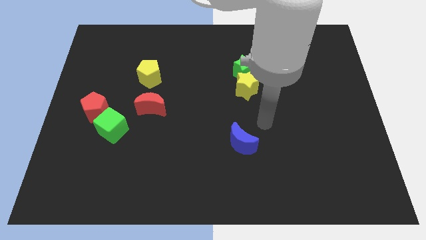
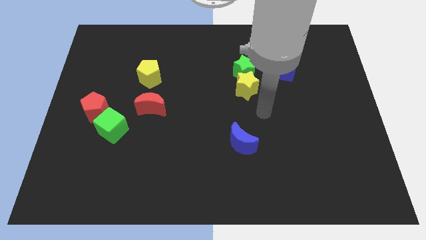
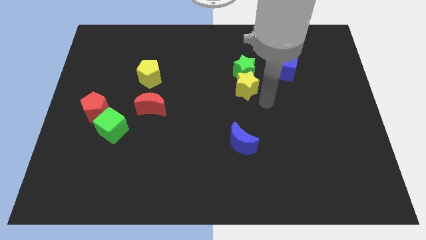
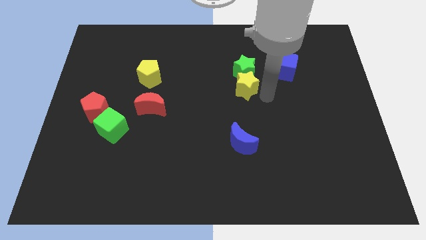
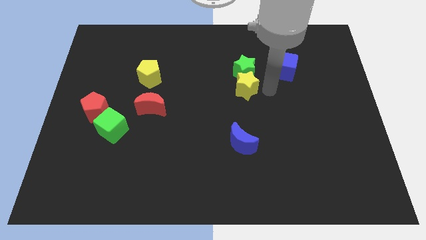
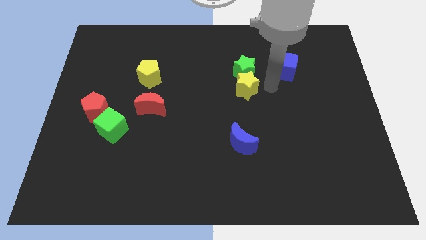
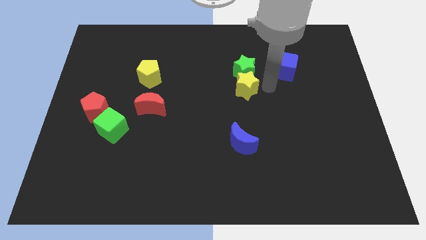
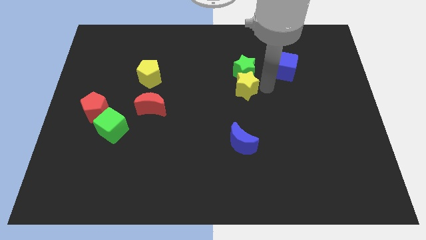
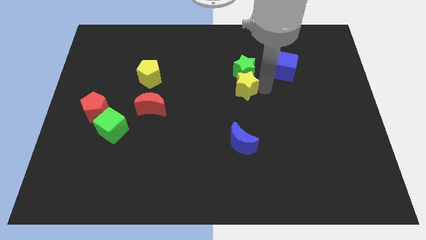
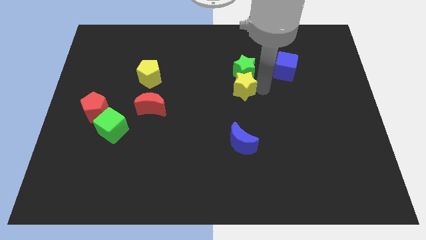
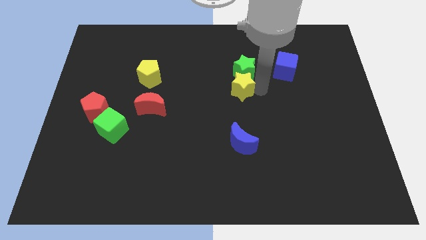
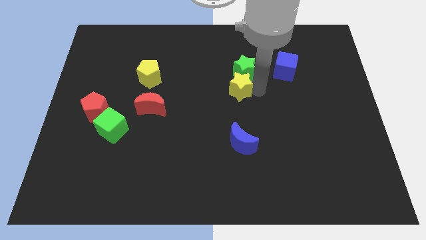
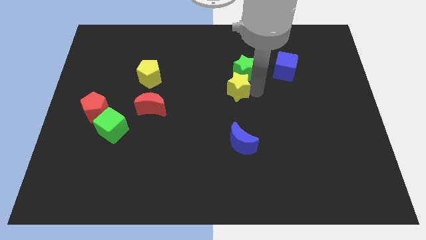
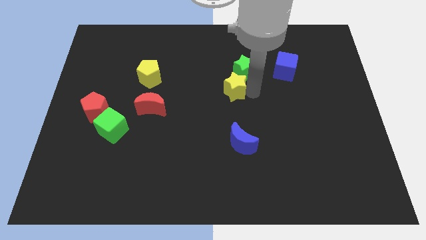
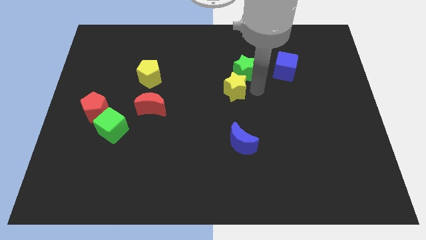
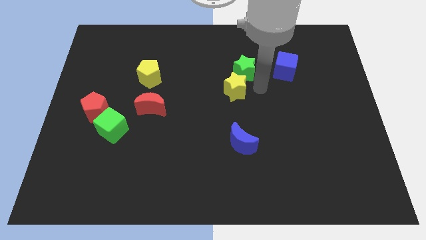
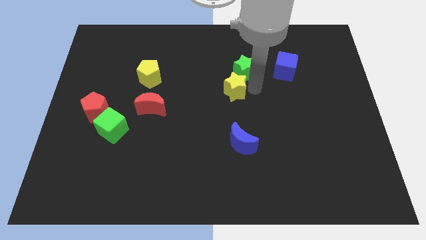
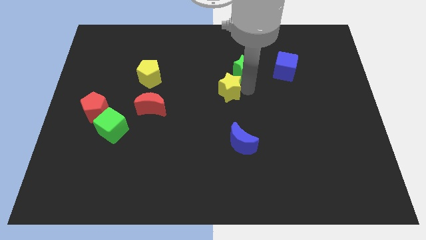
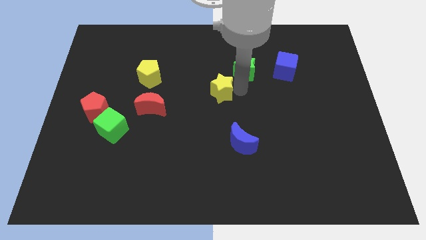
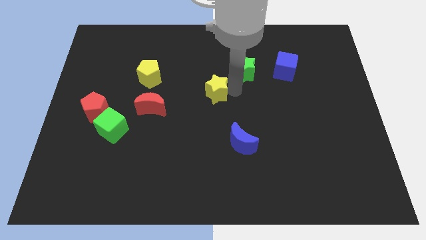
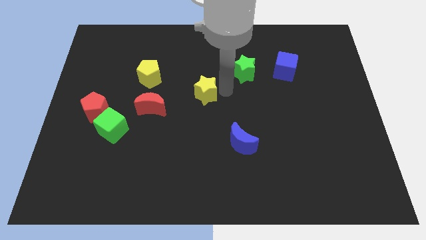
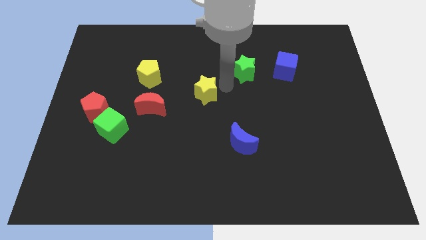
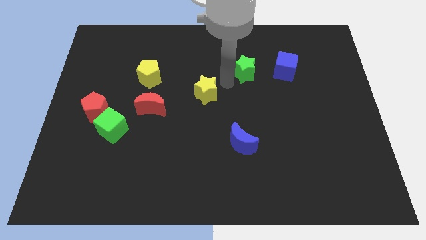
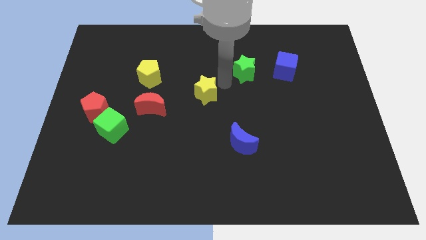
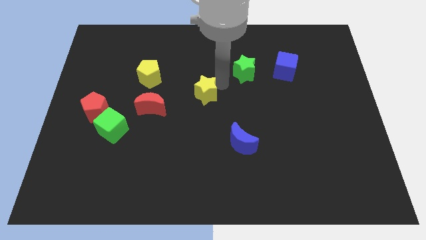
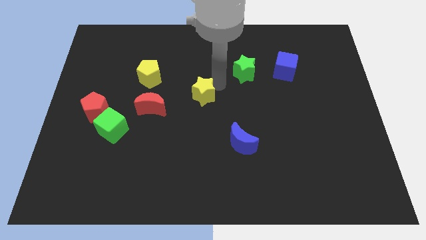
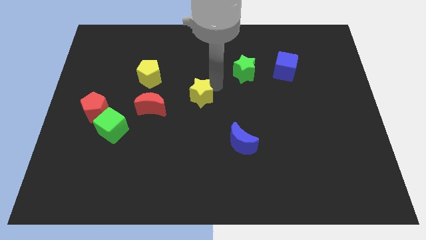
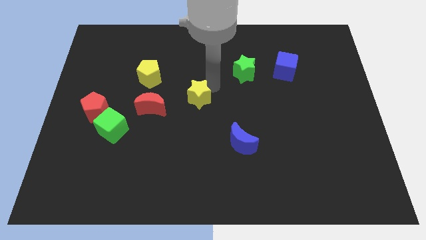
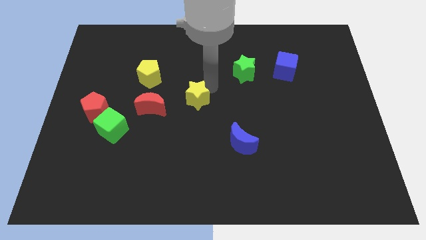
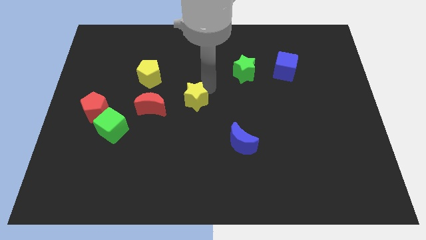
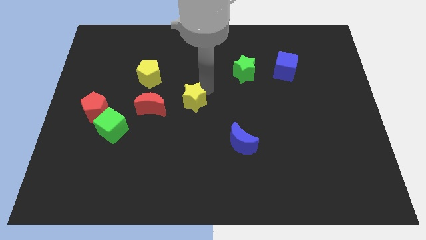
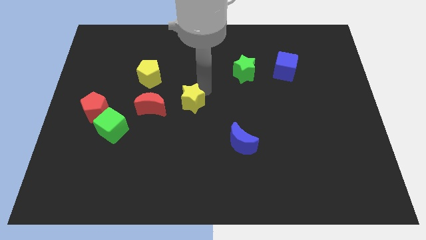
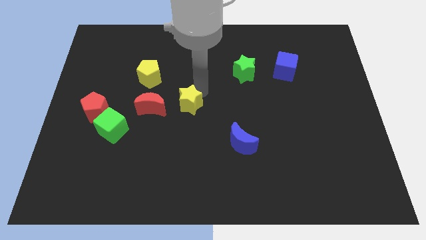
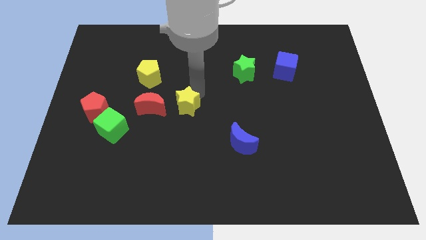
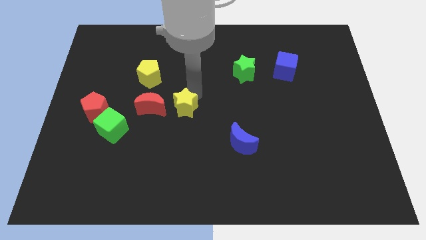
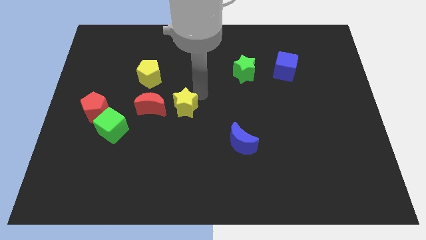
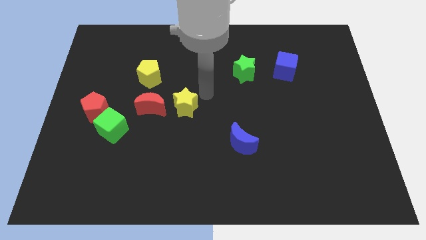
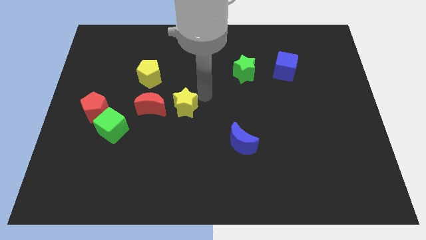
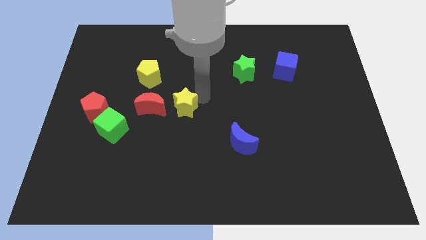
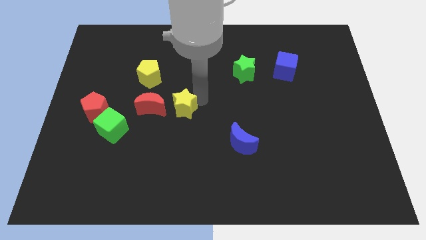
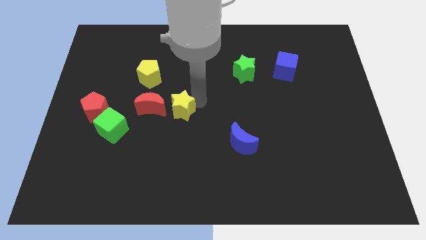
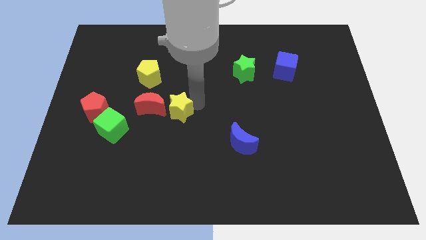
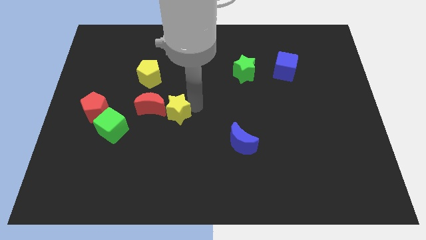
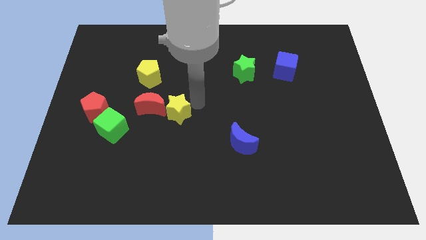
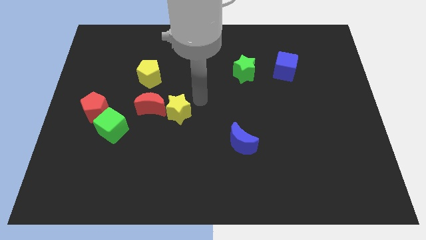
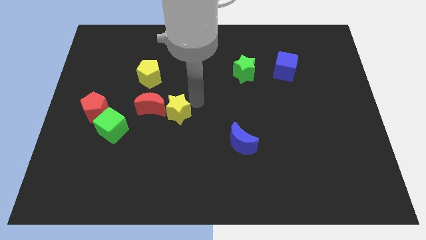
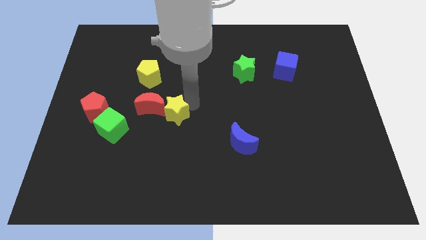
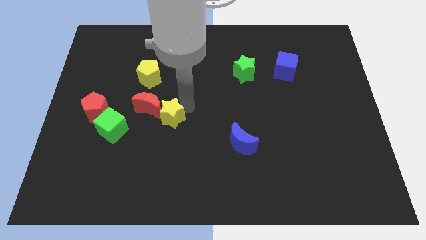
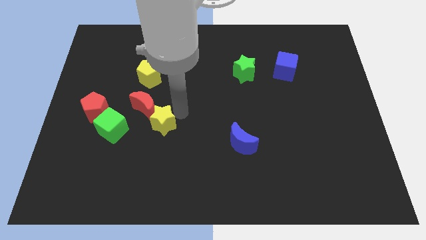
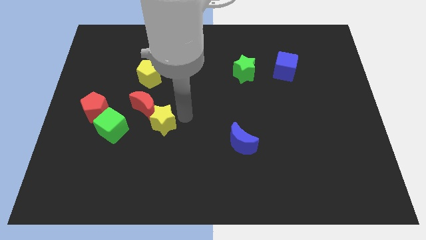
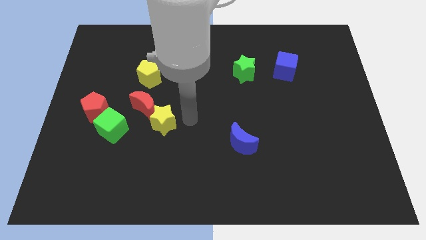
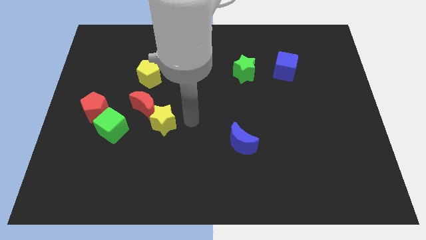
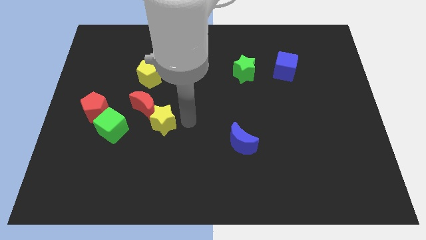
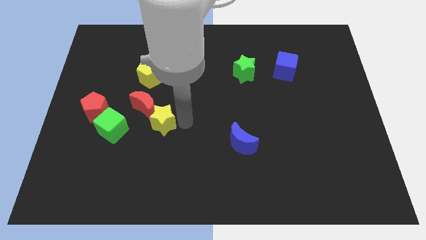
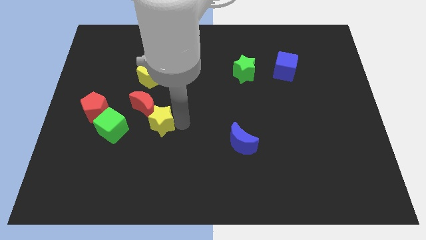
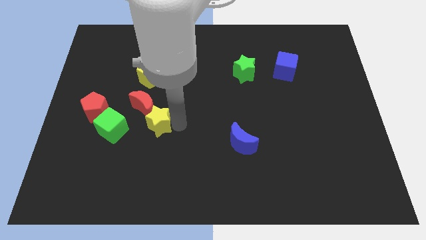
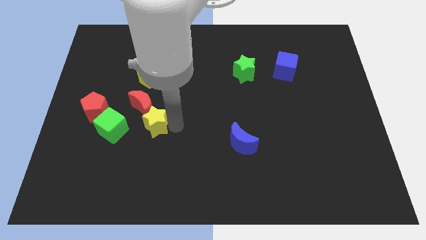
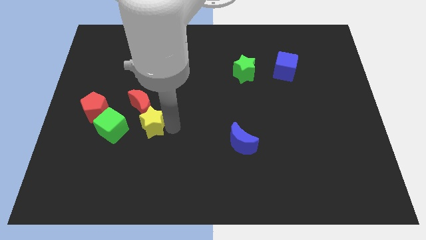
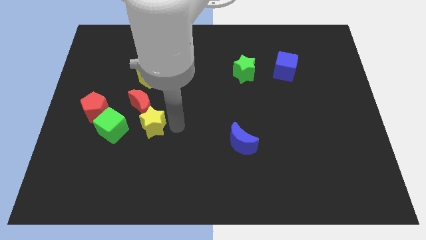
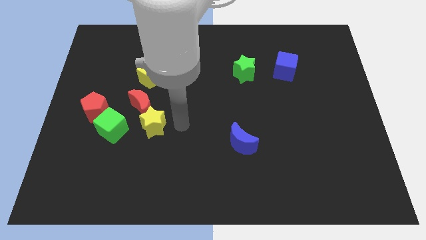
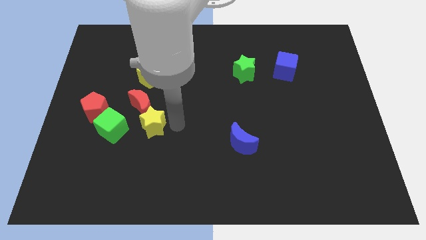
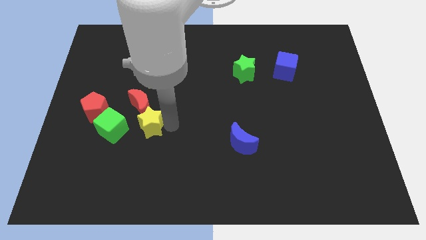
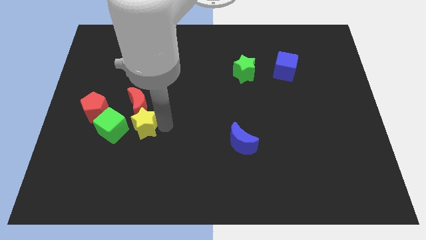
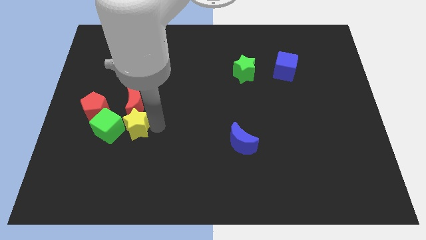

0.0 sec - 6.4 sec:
slide the yellow star to the green cube

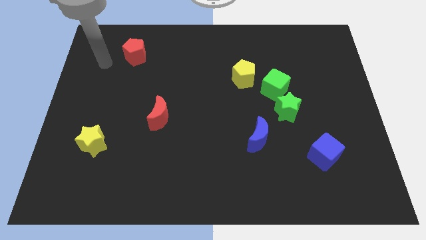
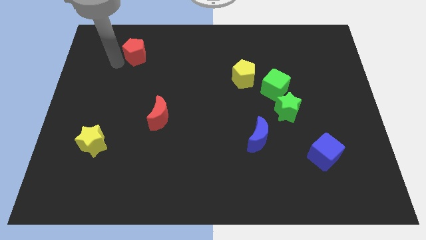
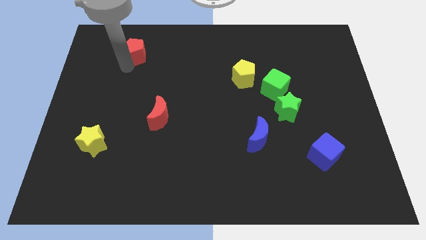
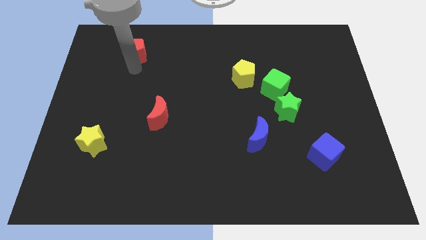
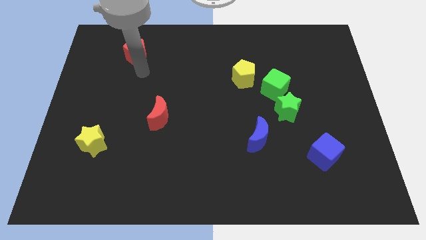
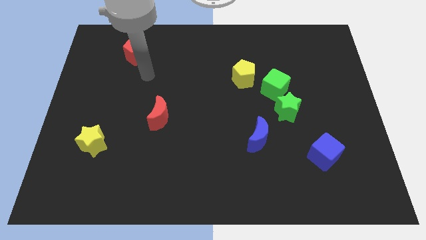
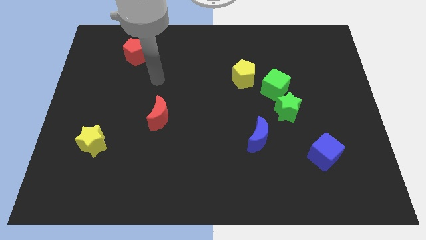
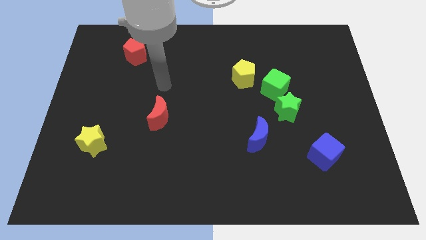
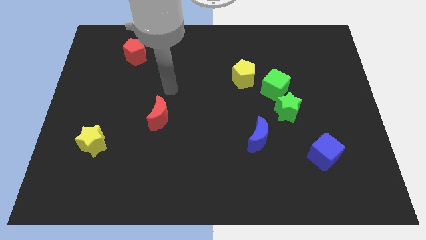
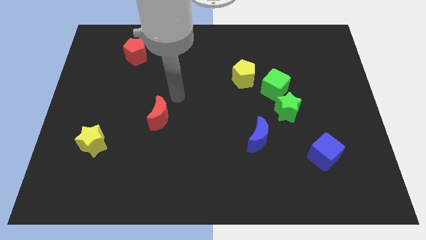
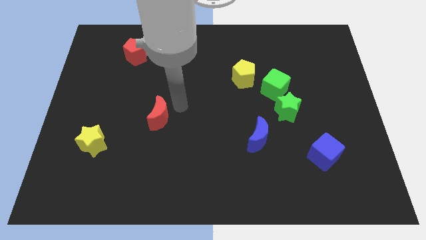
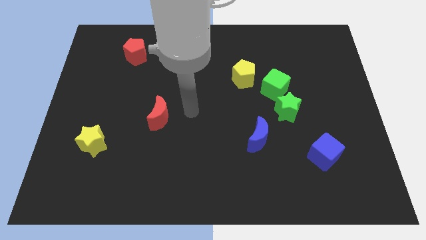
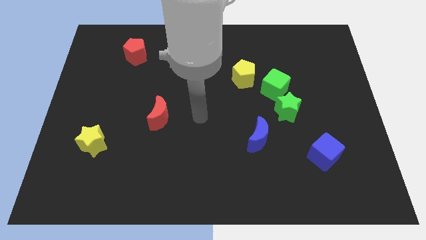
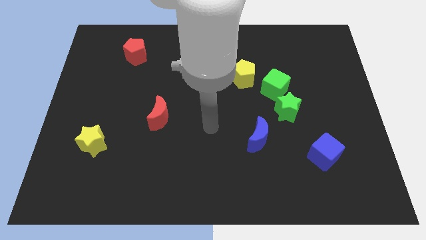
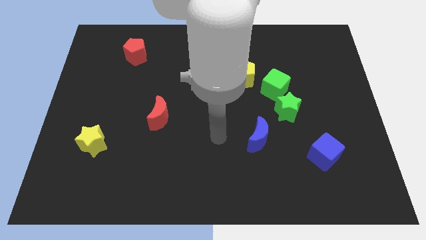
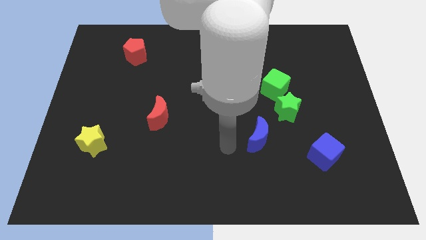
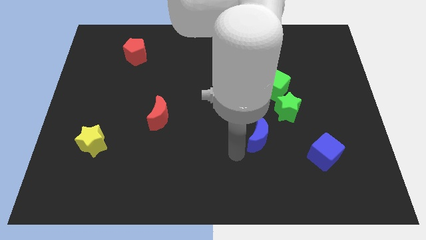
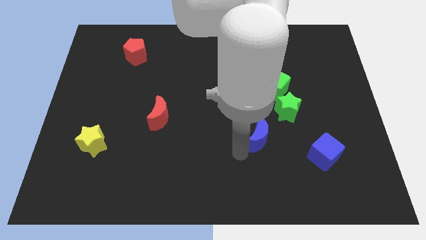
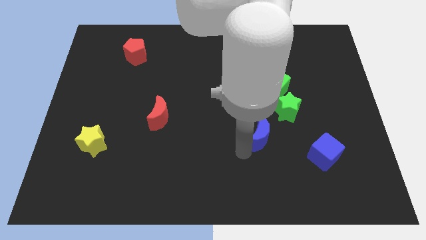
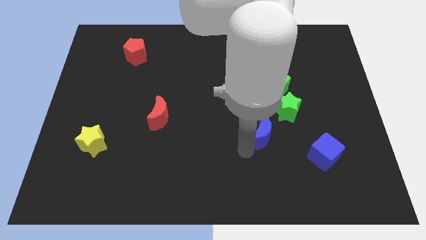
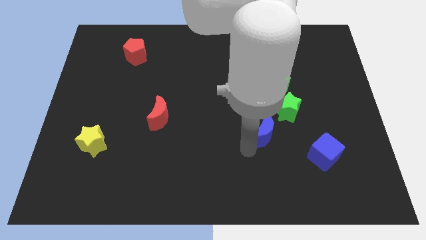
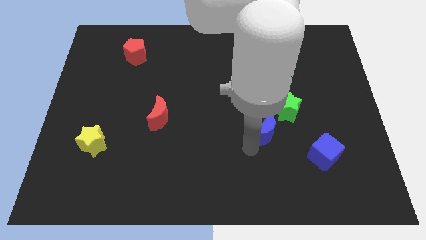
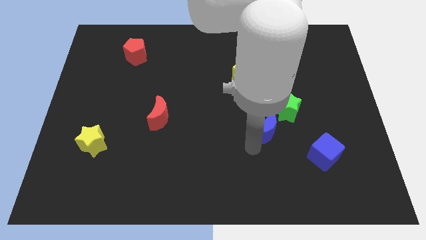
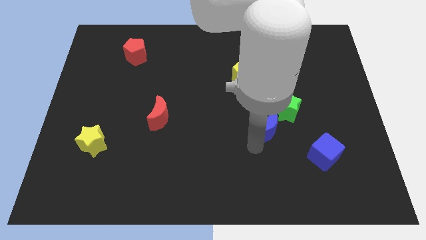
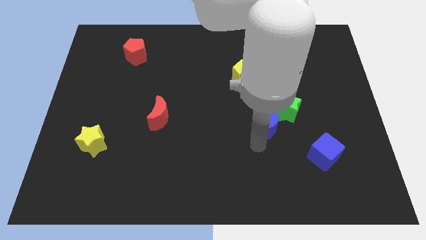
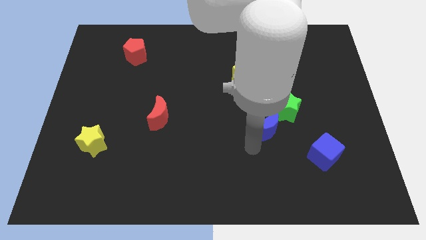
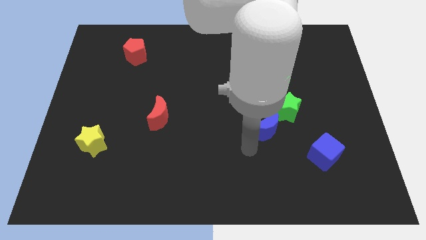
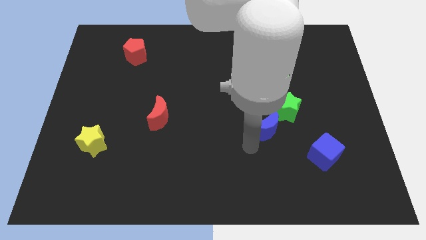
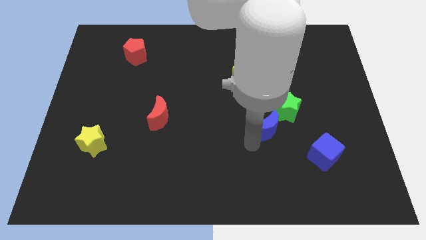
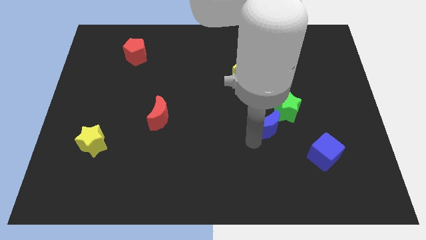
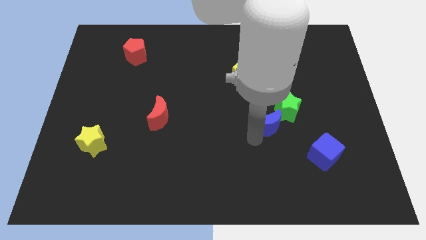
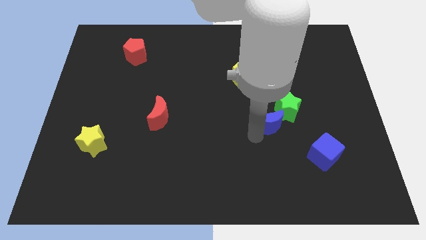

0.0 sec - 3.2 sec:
push the blue moon close to the green star
